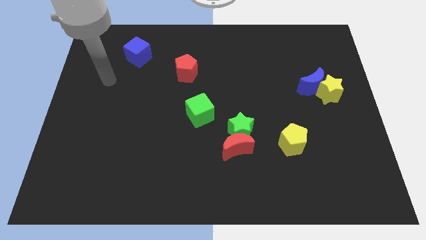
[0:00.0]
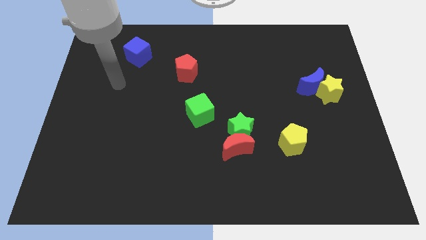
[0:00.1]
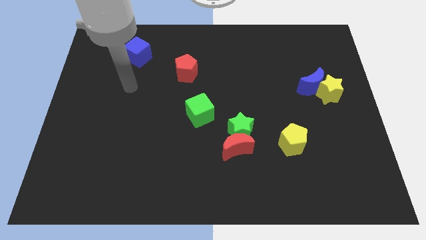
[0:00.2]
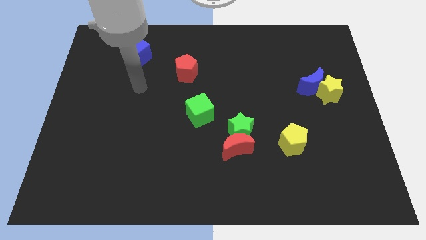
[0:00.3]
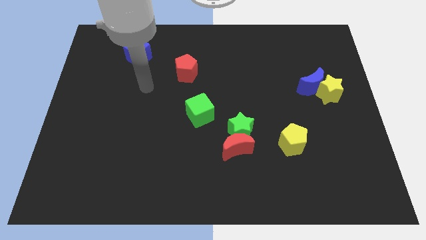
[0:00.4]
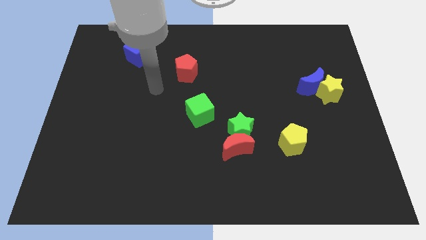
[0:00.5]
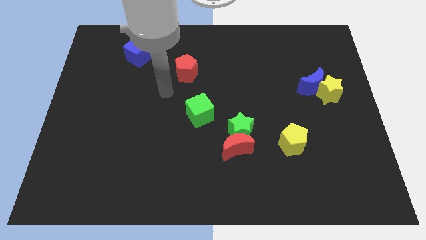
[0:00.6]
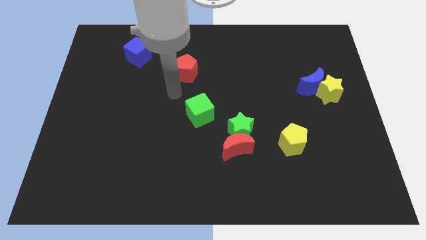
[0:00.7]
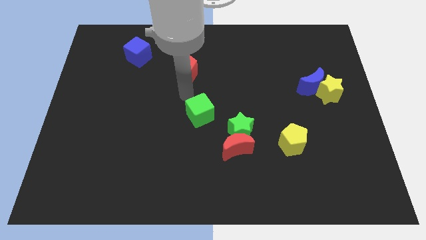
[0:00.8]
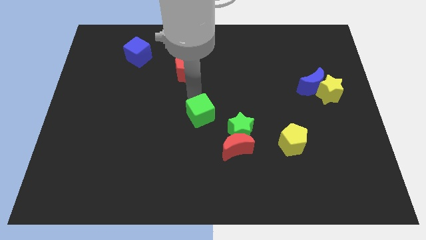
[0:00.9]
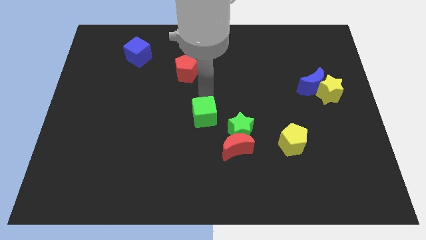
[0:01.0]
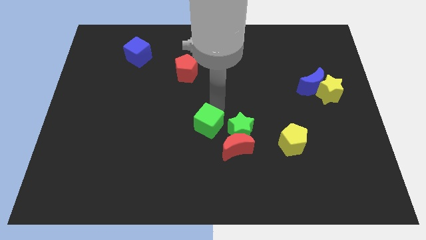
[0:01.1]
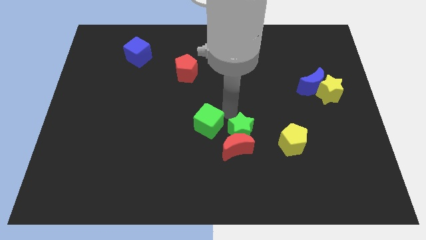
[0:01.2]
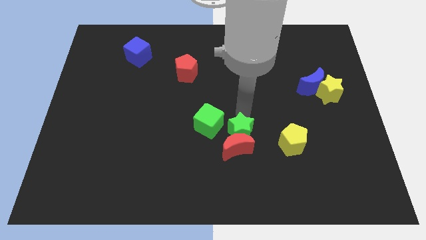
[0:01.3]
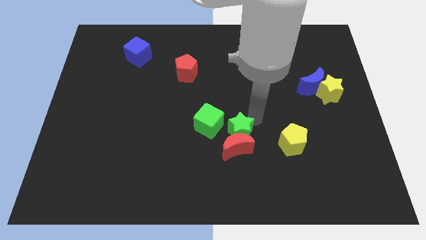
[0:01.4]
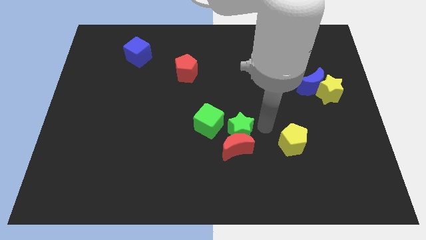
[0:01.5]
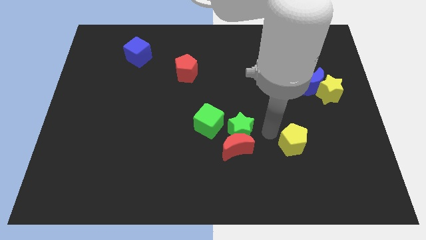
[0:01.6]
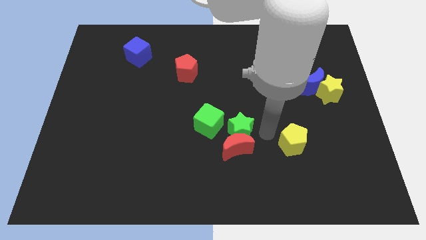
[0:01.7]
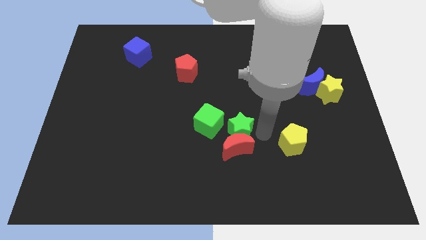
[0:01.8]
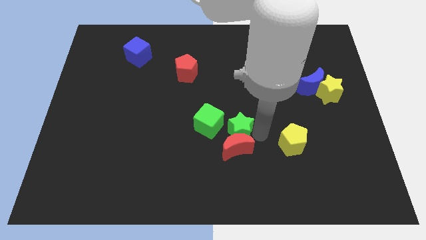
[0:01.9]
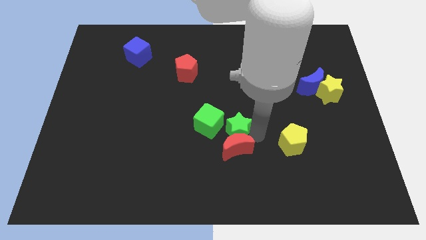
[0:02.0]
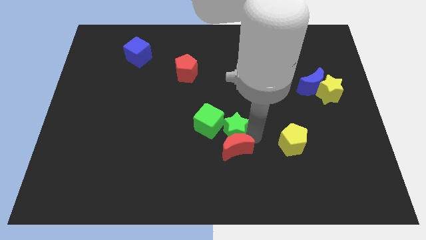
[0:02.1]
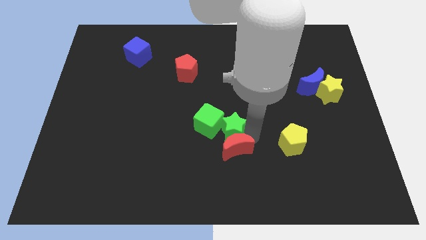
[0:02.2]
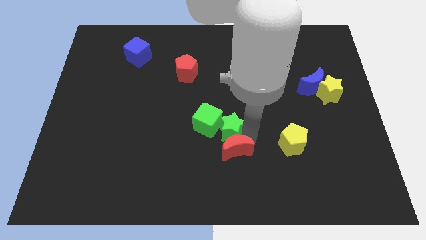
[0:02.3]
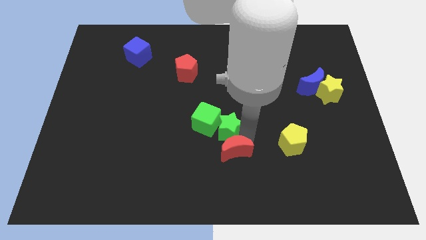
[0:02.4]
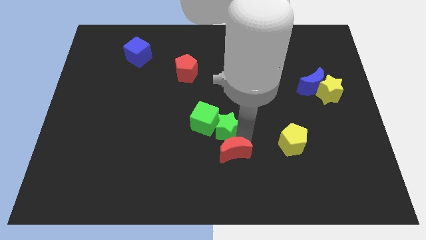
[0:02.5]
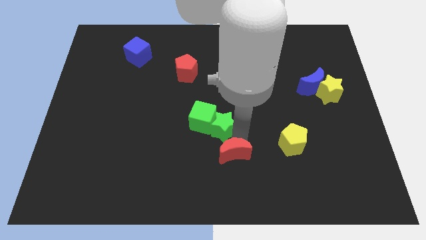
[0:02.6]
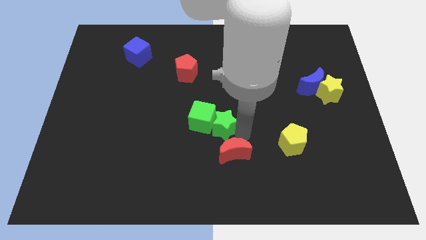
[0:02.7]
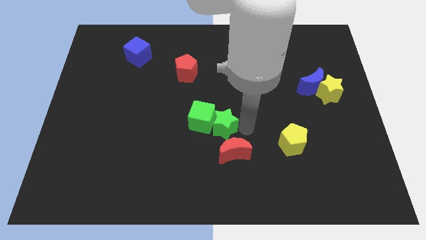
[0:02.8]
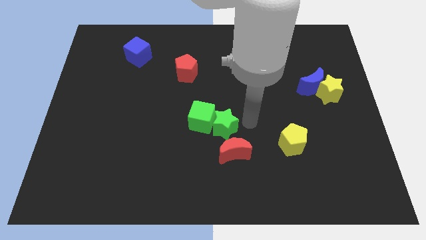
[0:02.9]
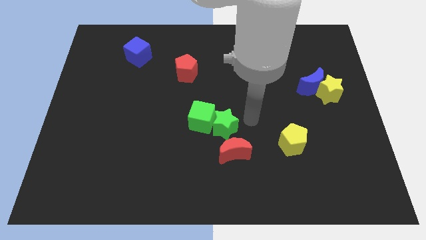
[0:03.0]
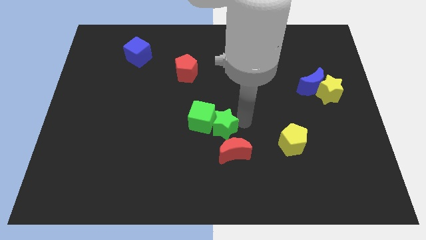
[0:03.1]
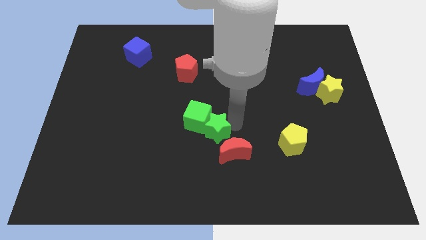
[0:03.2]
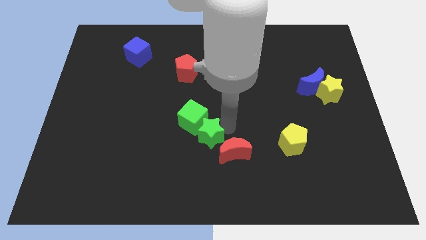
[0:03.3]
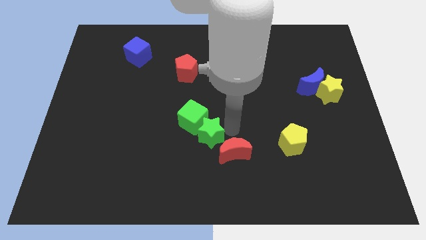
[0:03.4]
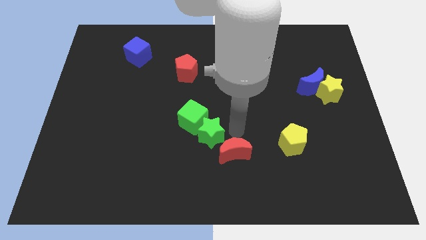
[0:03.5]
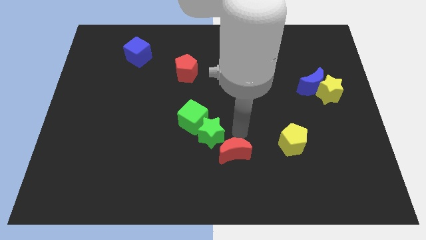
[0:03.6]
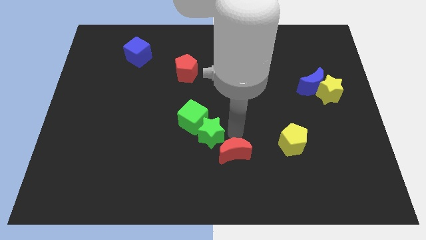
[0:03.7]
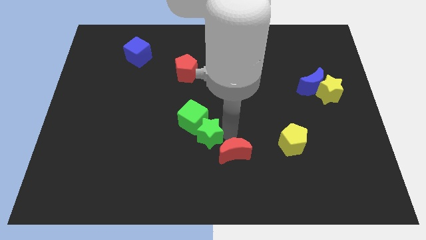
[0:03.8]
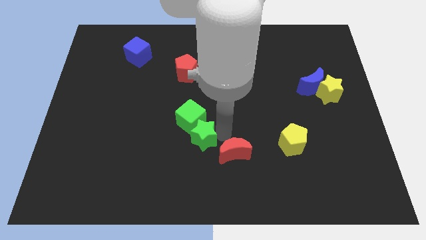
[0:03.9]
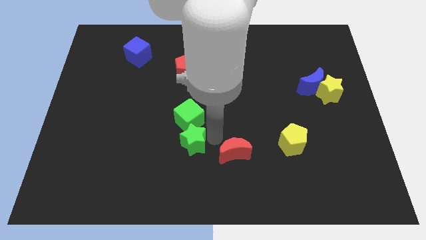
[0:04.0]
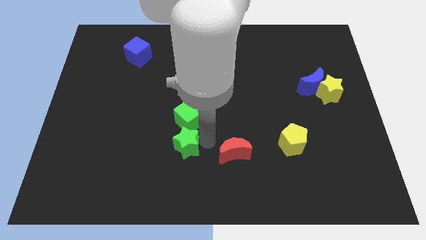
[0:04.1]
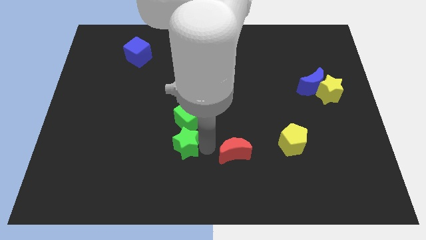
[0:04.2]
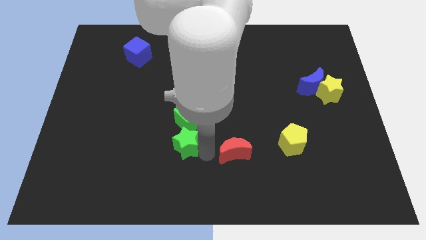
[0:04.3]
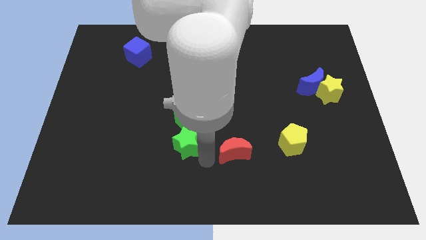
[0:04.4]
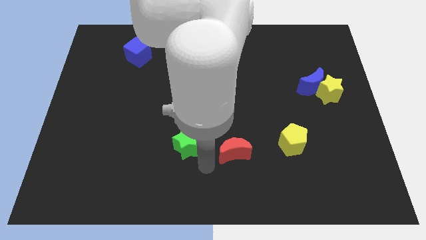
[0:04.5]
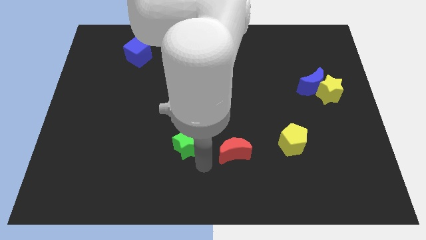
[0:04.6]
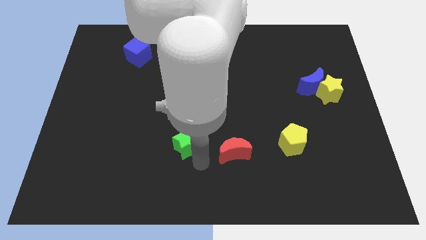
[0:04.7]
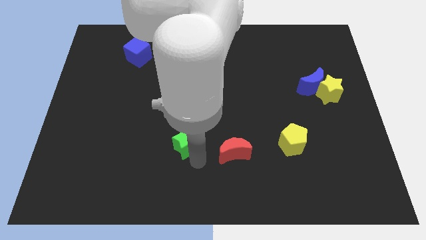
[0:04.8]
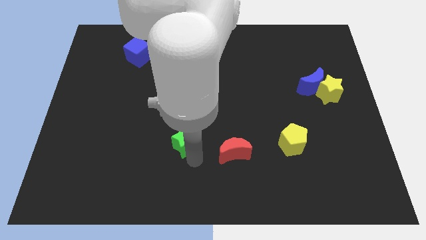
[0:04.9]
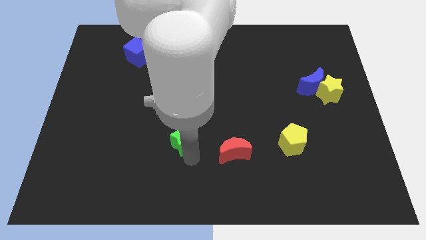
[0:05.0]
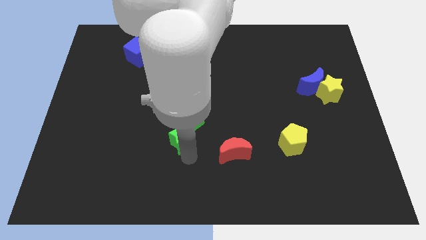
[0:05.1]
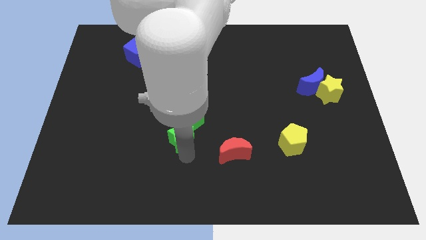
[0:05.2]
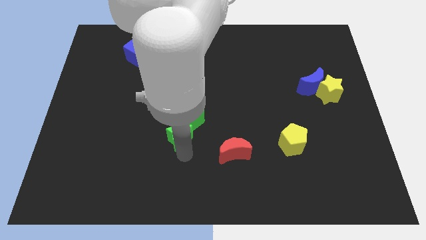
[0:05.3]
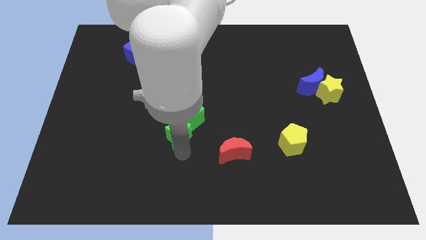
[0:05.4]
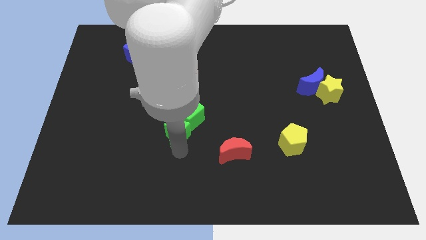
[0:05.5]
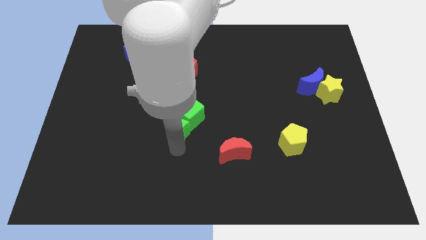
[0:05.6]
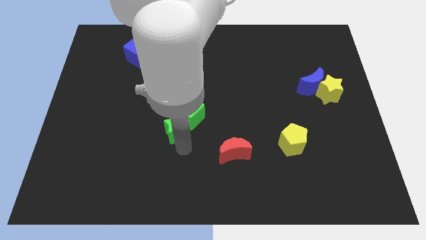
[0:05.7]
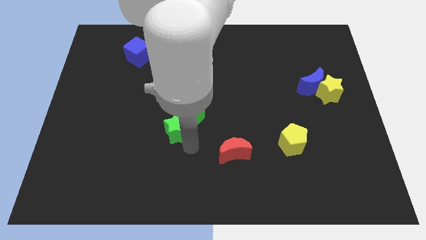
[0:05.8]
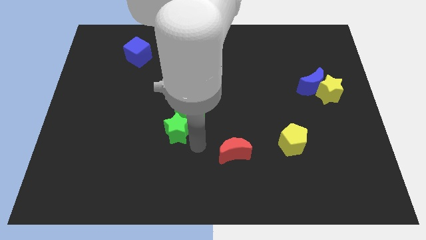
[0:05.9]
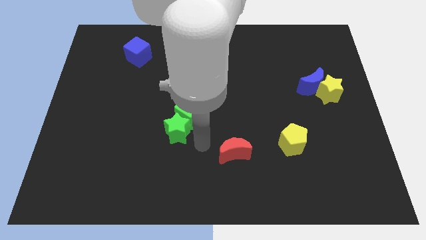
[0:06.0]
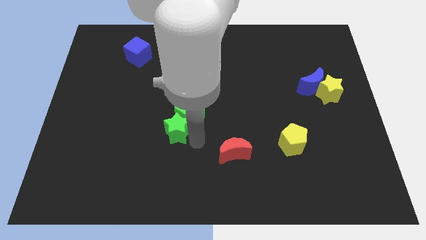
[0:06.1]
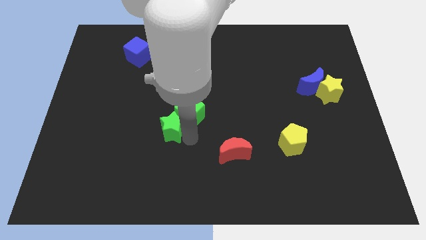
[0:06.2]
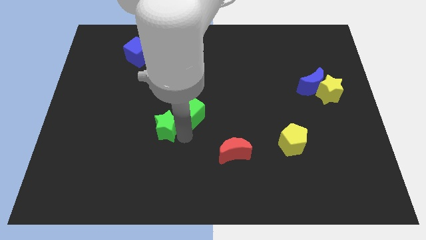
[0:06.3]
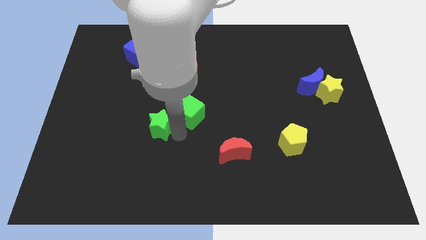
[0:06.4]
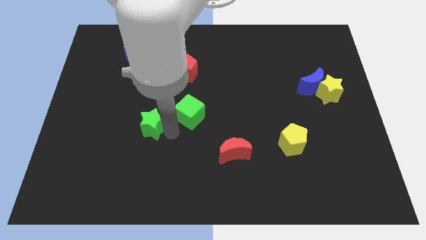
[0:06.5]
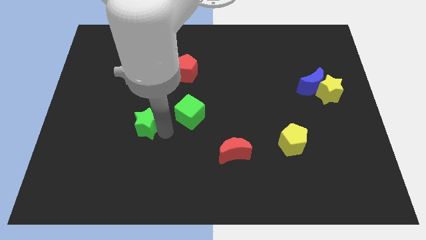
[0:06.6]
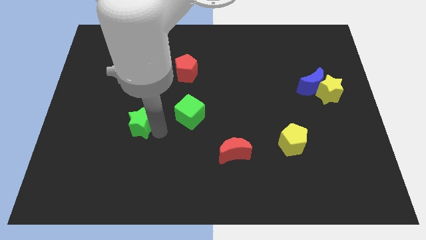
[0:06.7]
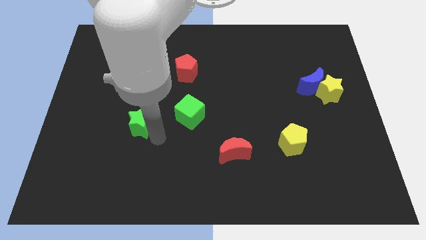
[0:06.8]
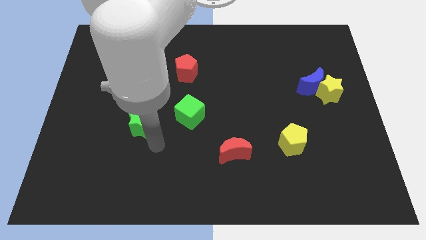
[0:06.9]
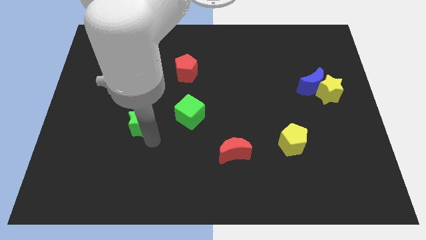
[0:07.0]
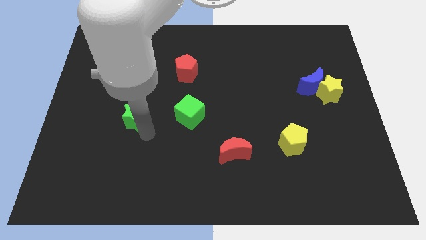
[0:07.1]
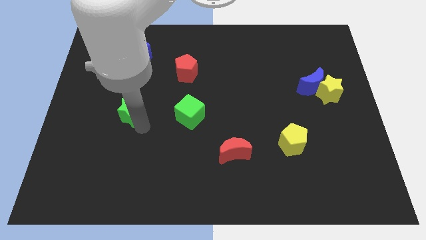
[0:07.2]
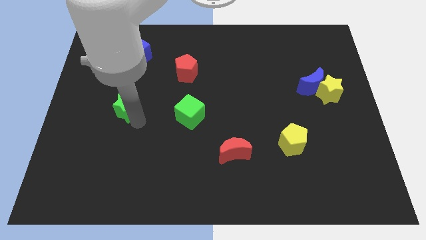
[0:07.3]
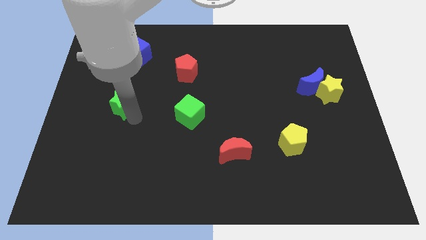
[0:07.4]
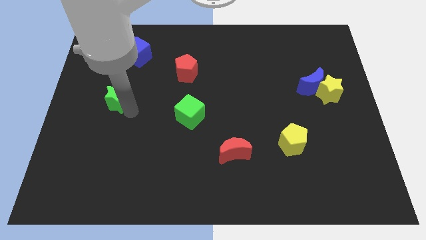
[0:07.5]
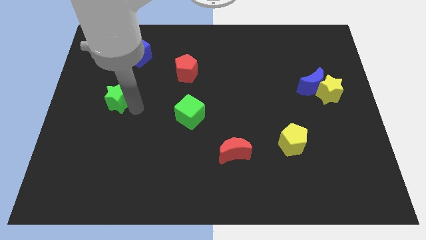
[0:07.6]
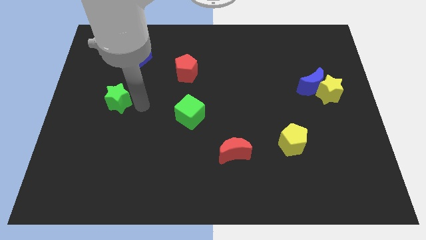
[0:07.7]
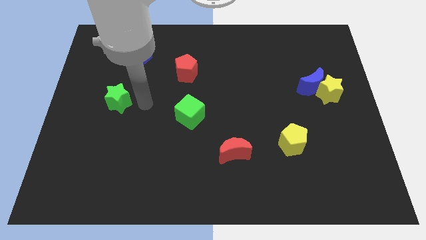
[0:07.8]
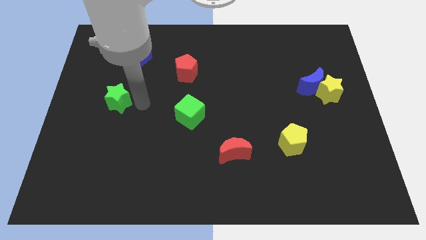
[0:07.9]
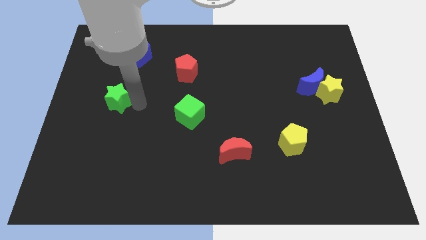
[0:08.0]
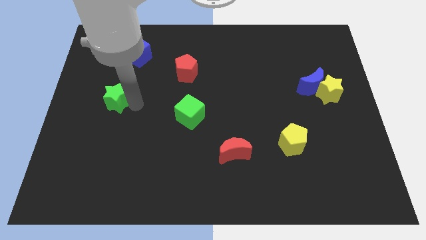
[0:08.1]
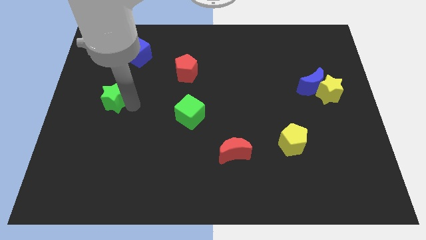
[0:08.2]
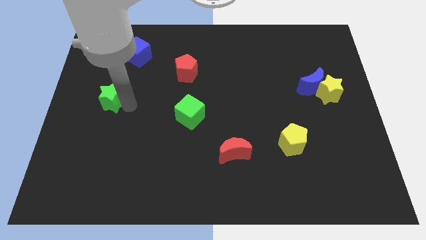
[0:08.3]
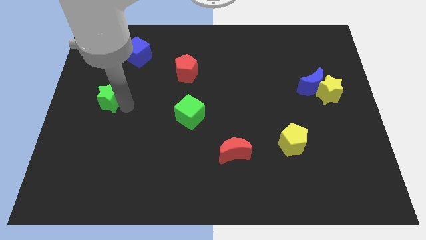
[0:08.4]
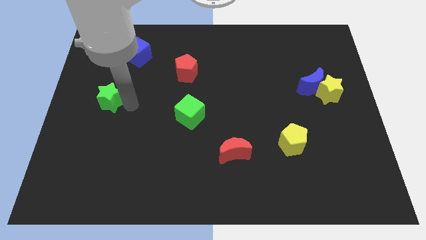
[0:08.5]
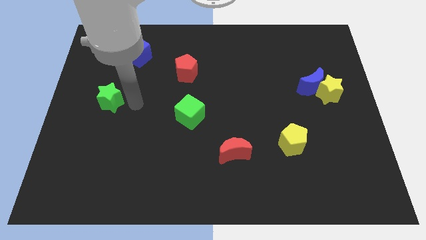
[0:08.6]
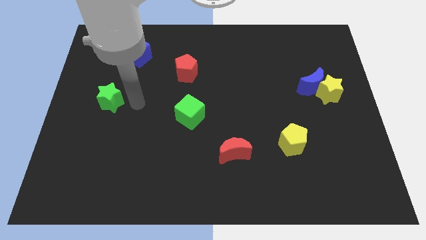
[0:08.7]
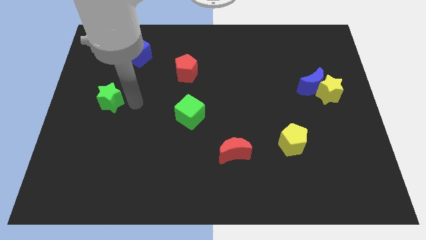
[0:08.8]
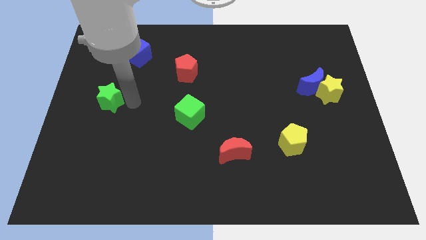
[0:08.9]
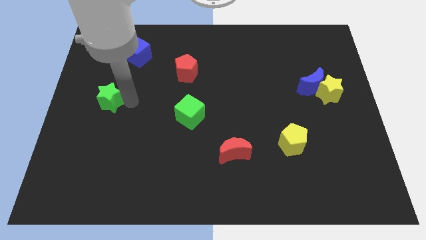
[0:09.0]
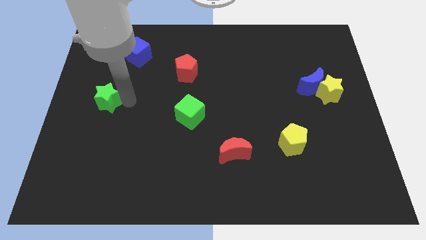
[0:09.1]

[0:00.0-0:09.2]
move the green star to the left side
